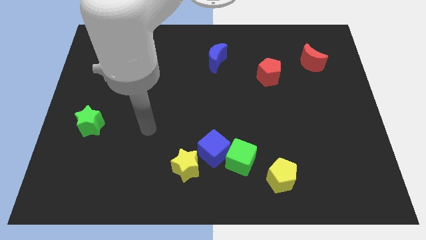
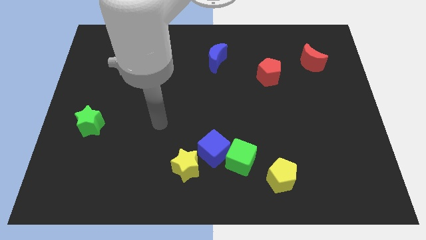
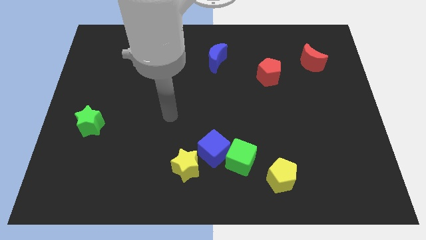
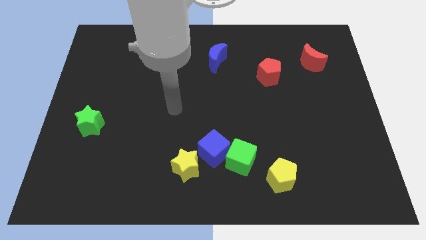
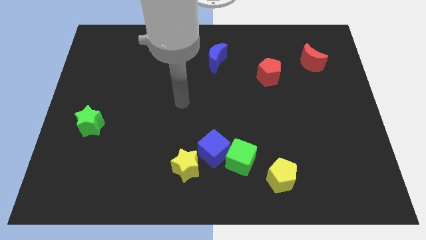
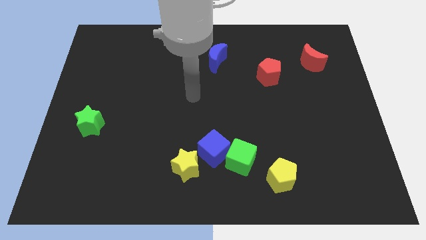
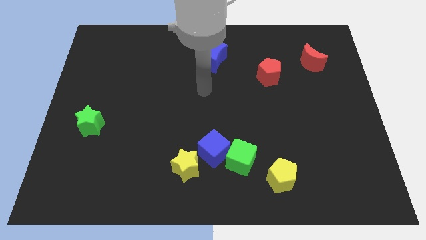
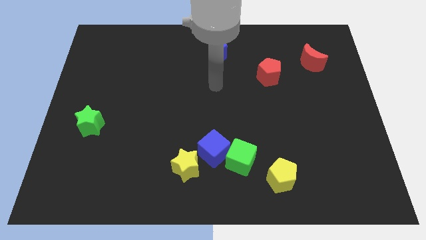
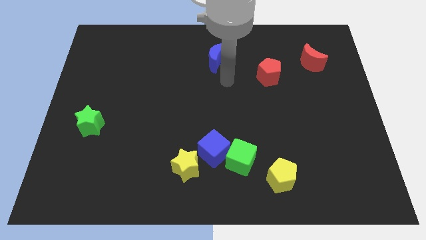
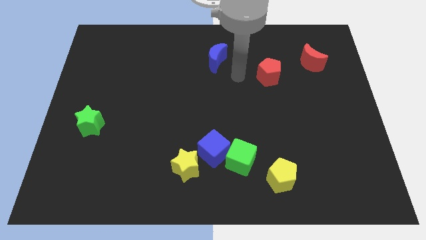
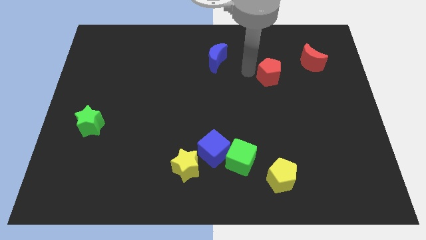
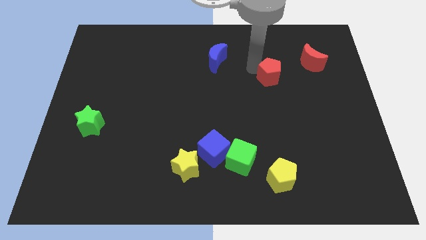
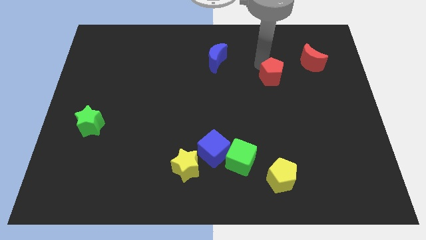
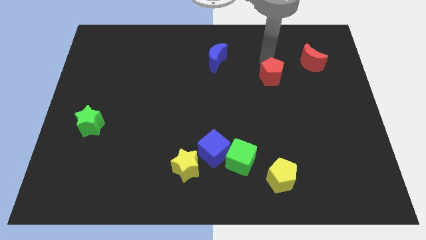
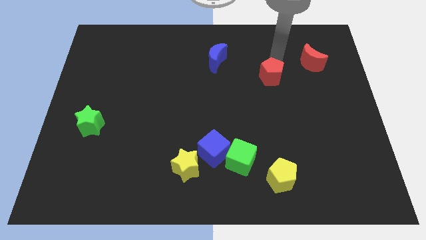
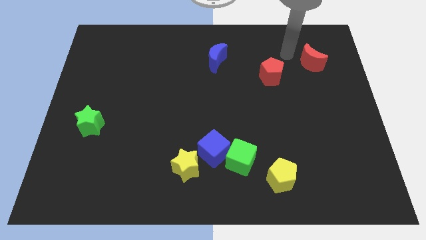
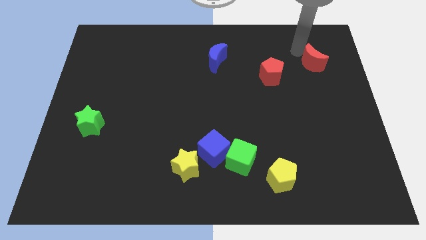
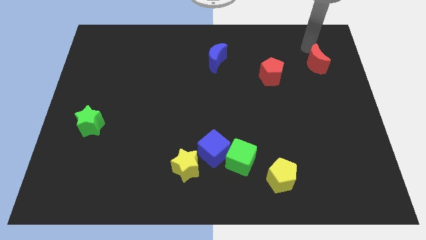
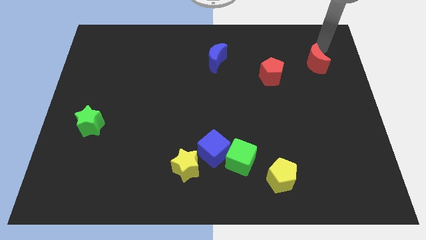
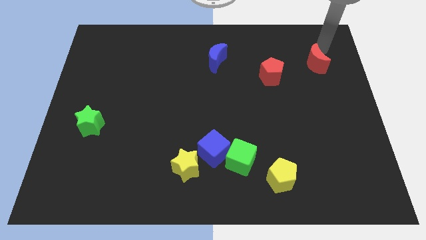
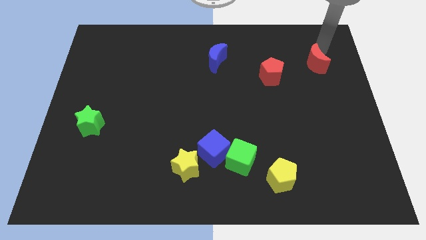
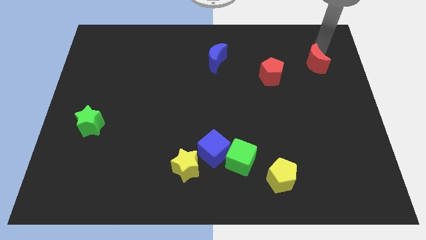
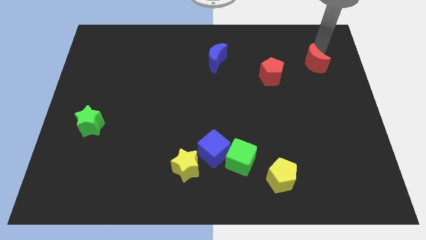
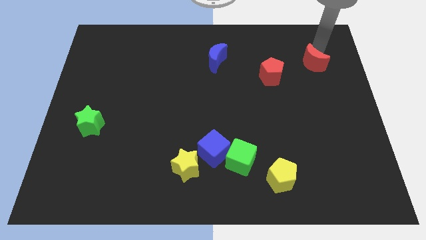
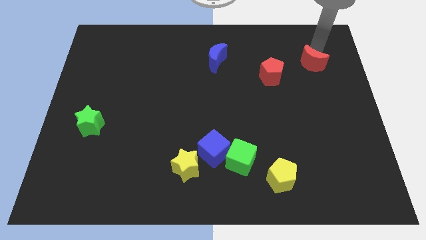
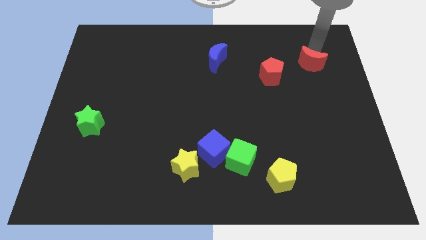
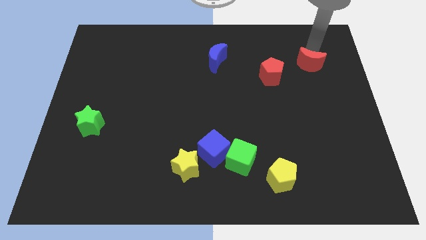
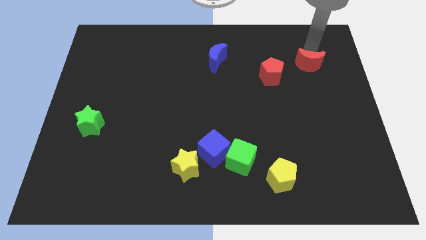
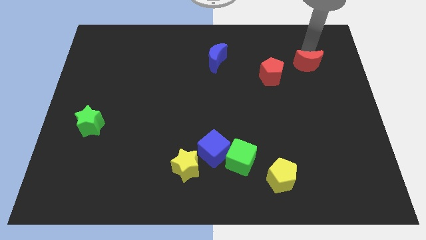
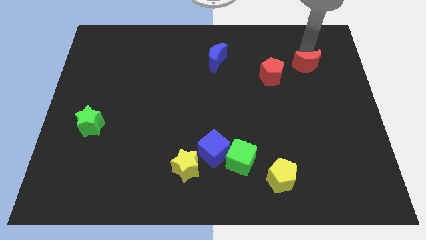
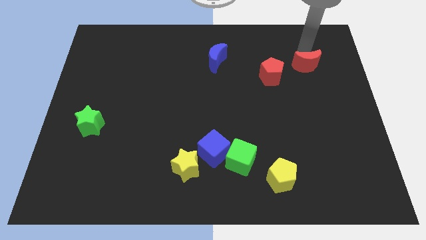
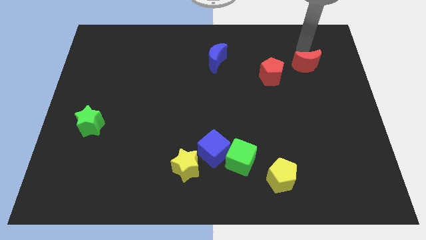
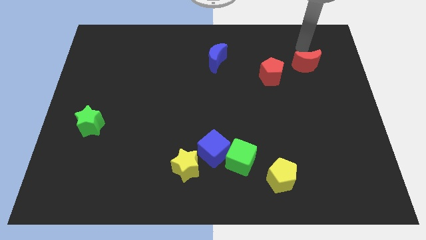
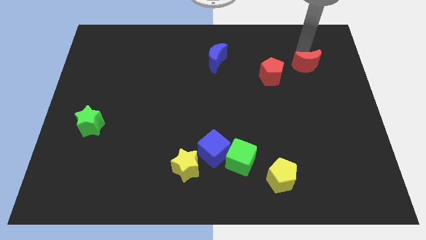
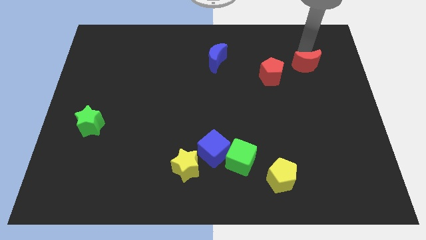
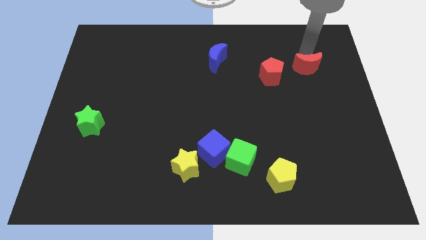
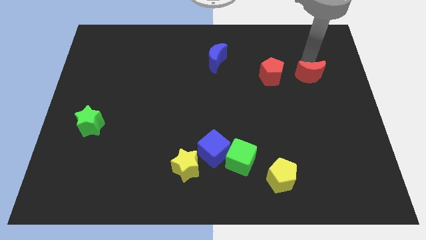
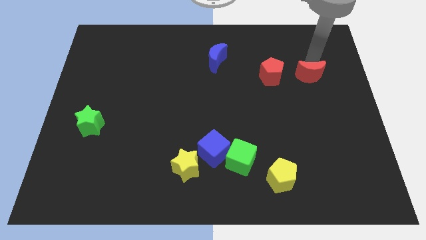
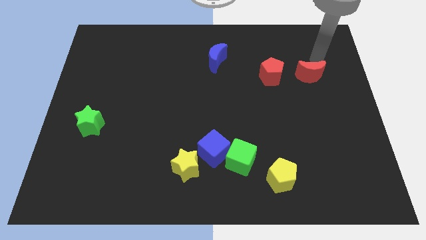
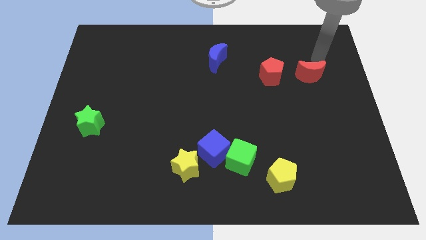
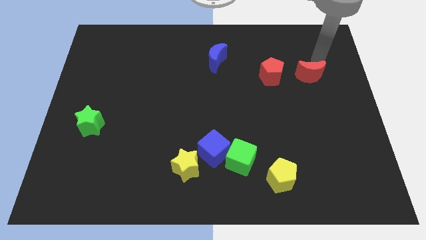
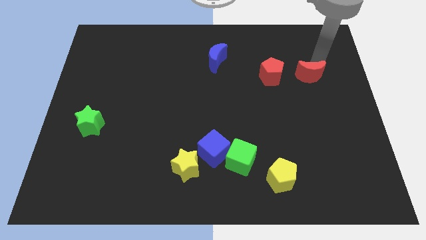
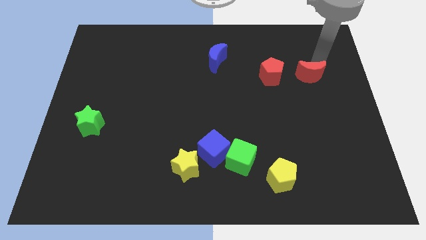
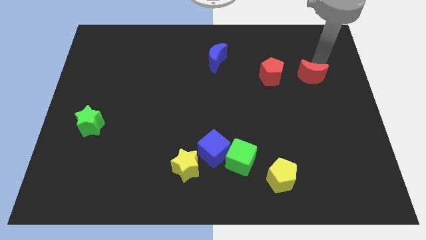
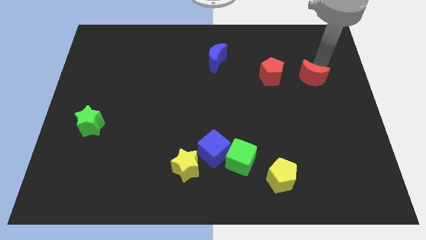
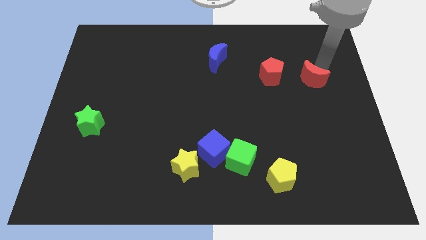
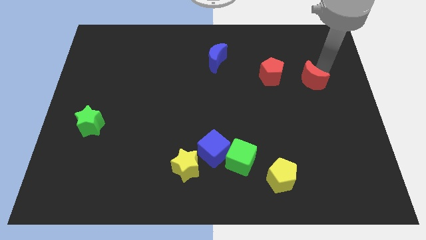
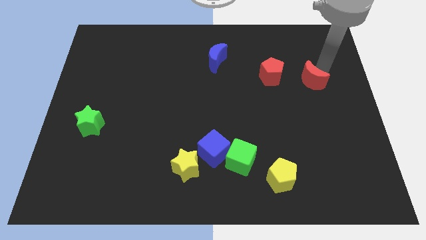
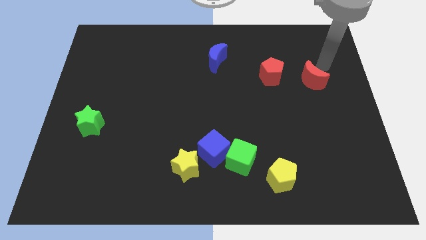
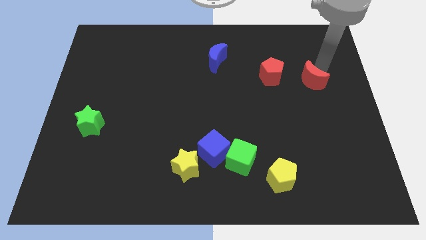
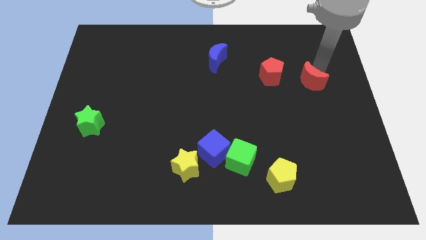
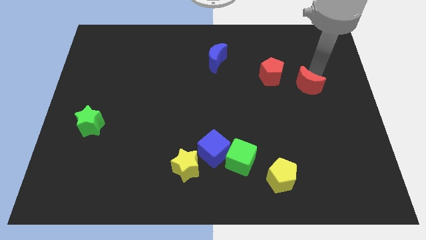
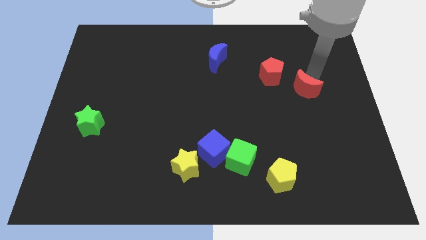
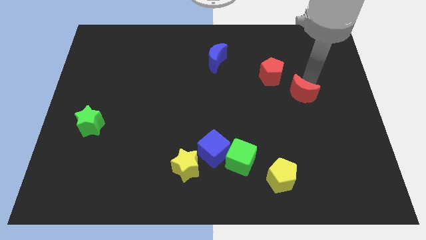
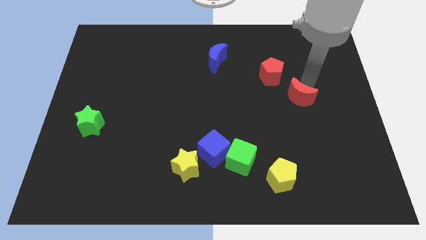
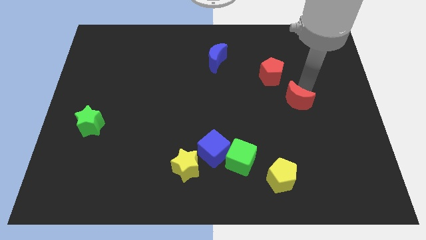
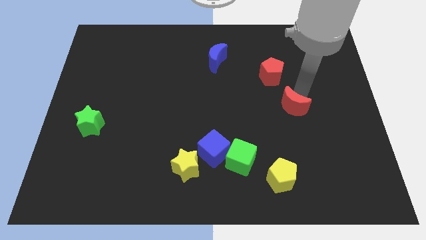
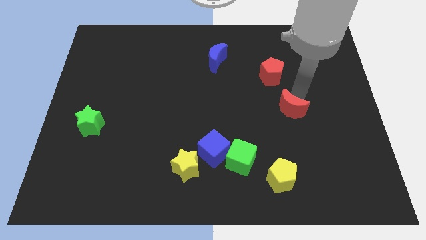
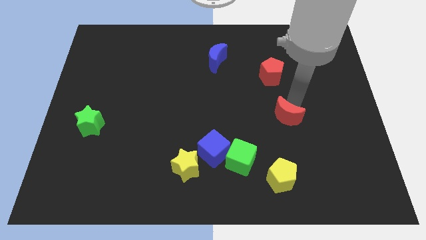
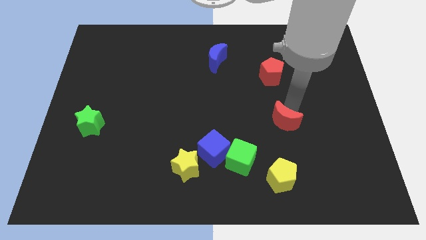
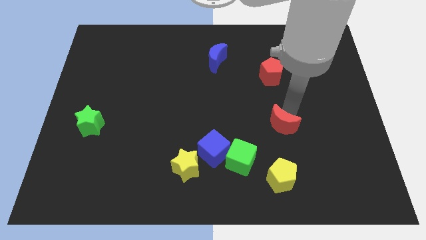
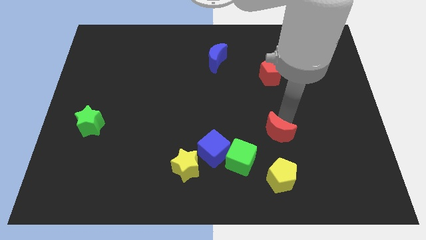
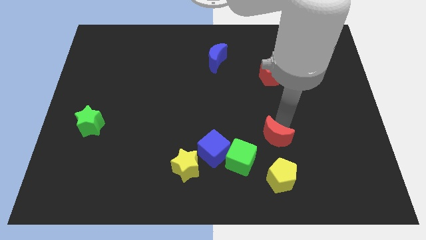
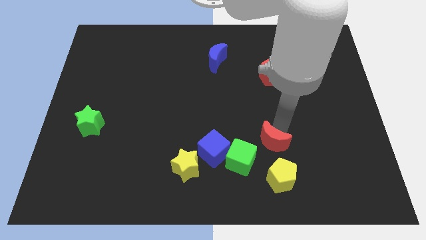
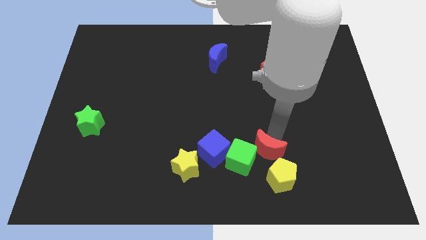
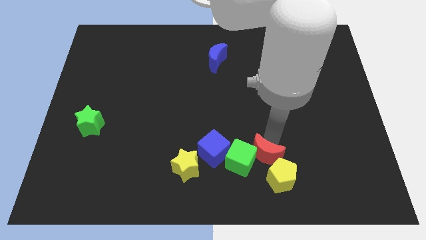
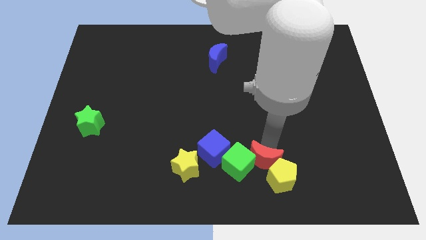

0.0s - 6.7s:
move the red moon left of the yellow pentagon
